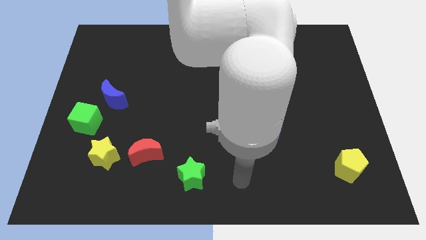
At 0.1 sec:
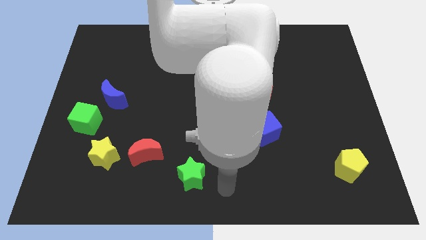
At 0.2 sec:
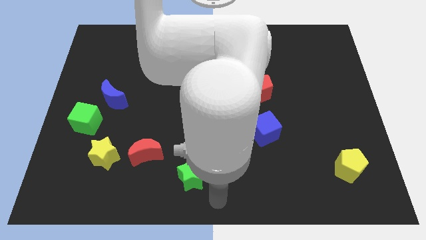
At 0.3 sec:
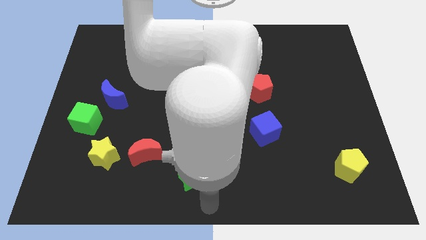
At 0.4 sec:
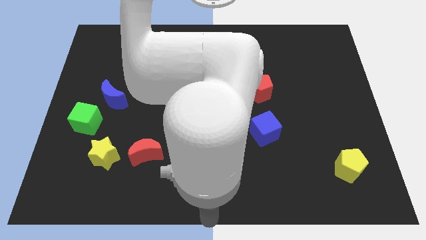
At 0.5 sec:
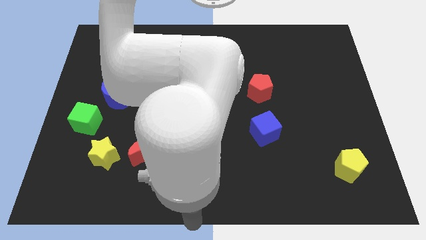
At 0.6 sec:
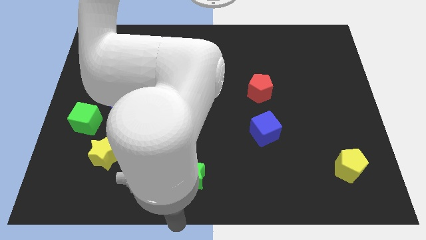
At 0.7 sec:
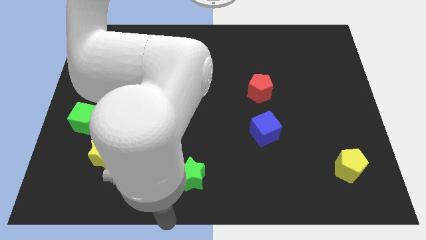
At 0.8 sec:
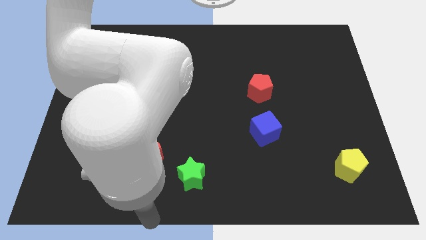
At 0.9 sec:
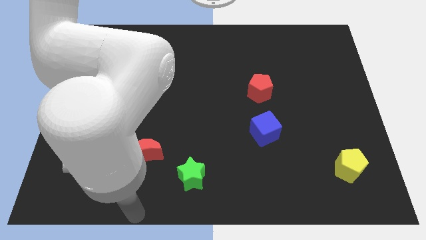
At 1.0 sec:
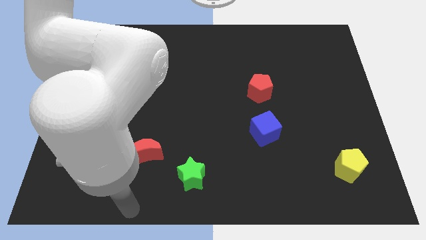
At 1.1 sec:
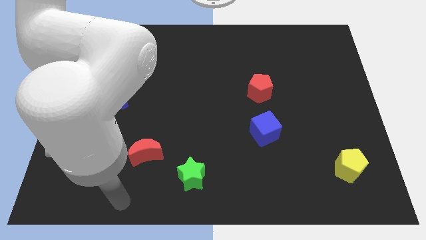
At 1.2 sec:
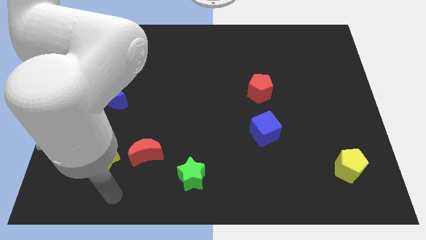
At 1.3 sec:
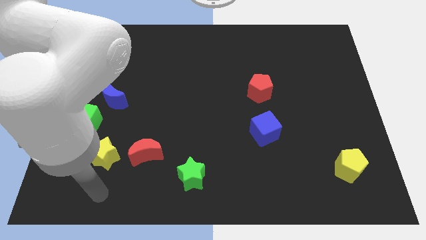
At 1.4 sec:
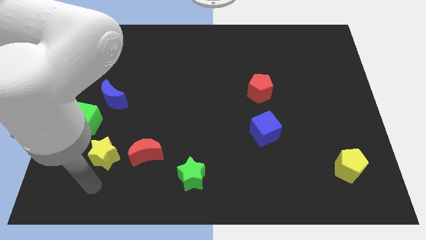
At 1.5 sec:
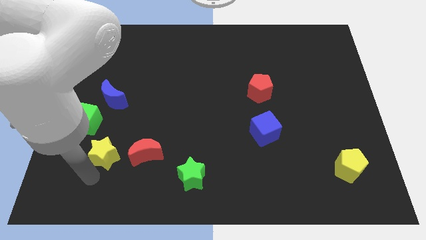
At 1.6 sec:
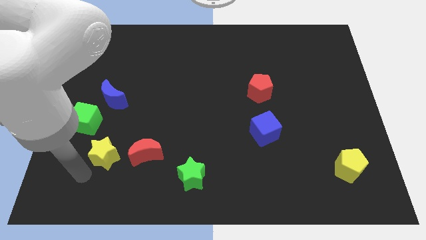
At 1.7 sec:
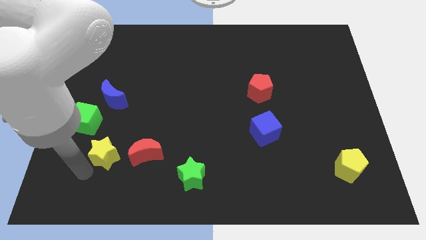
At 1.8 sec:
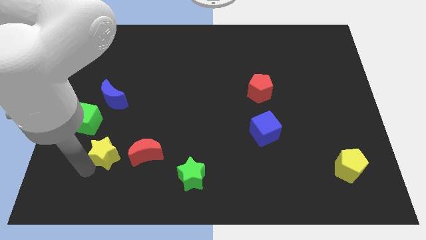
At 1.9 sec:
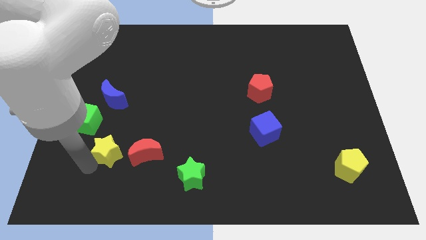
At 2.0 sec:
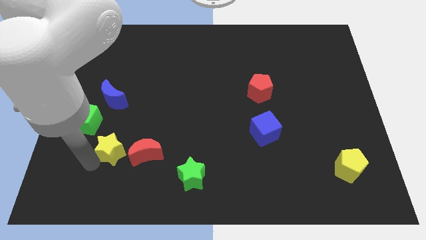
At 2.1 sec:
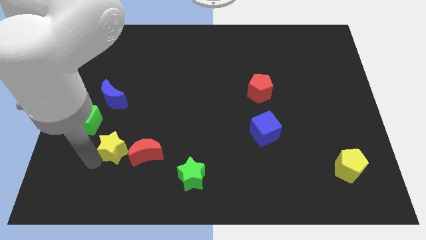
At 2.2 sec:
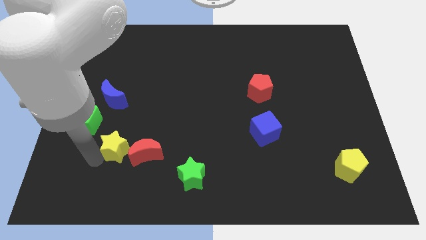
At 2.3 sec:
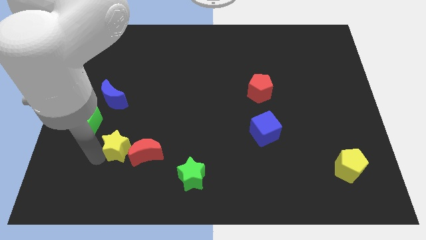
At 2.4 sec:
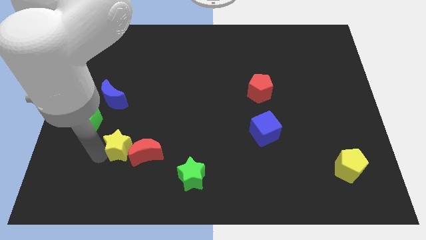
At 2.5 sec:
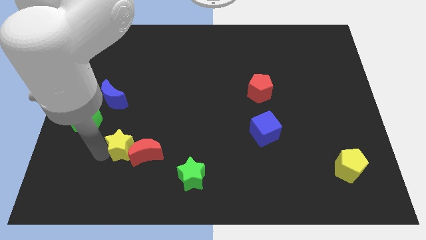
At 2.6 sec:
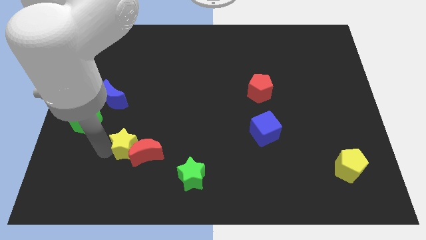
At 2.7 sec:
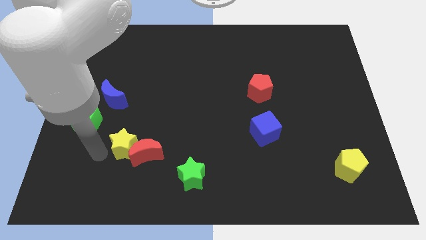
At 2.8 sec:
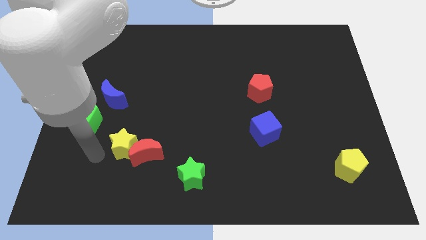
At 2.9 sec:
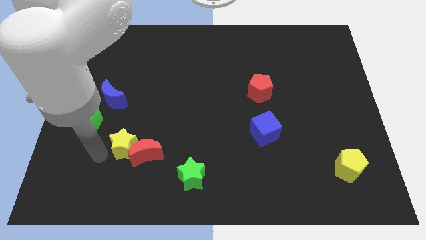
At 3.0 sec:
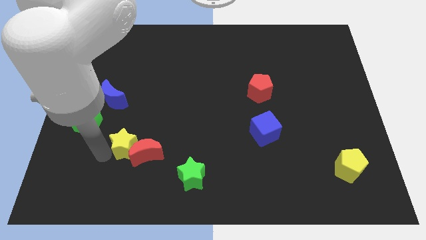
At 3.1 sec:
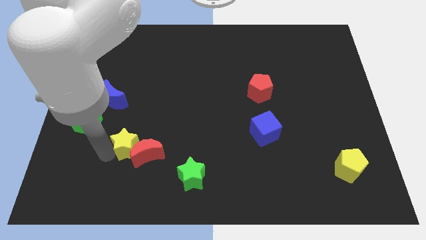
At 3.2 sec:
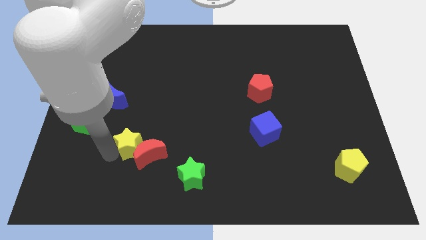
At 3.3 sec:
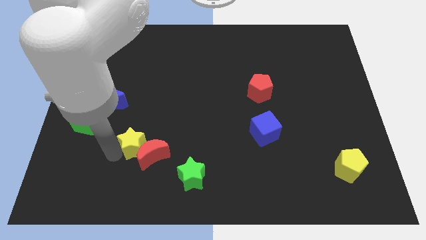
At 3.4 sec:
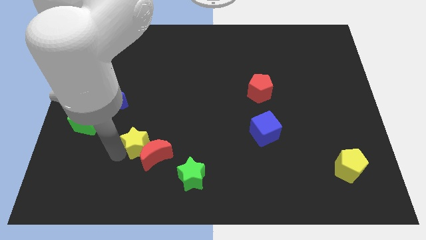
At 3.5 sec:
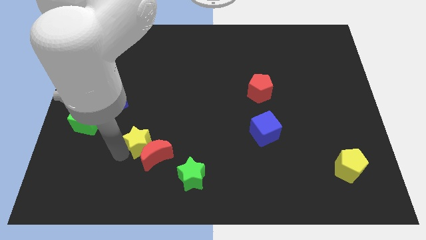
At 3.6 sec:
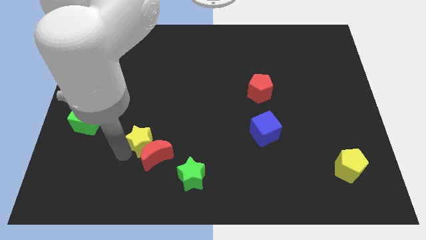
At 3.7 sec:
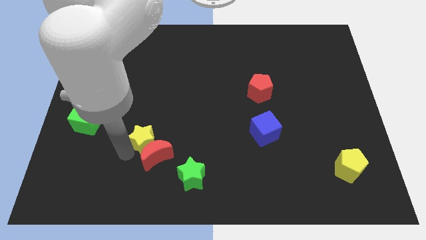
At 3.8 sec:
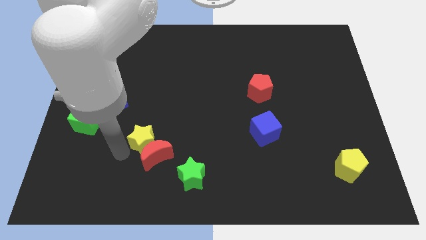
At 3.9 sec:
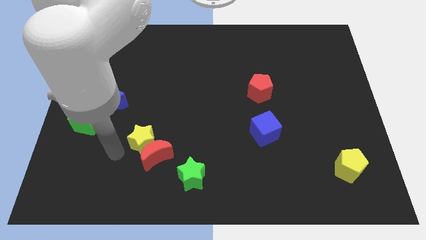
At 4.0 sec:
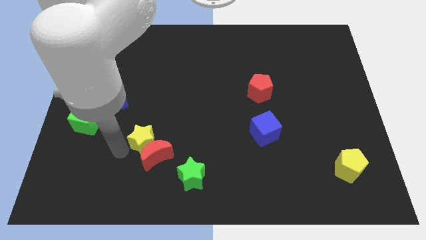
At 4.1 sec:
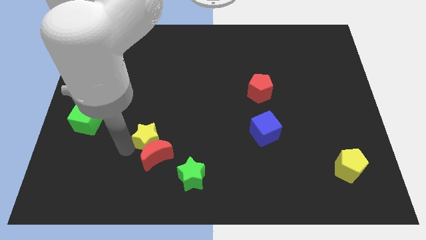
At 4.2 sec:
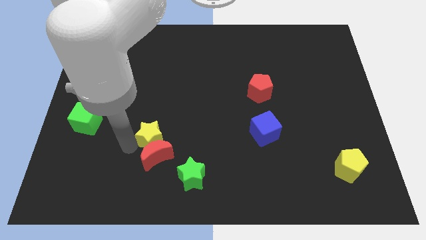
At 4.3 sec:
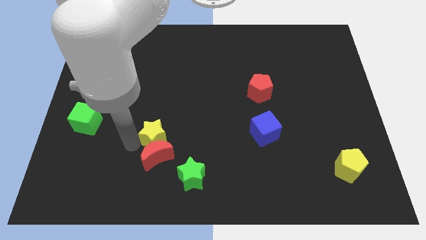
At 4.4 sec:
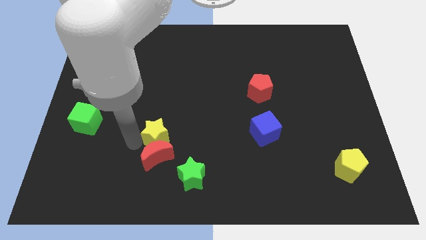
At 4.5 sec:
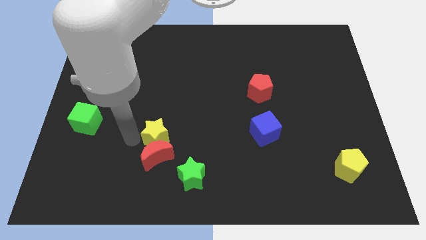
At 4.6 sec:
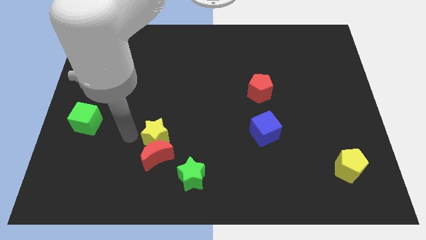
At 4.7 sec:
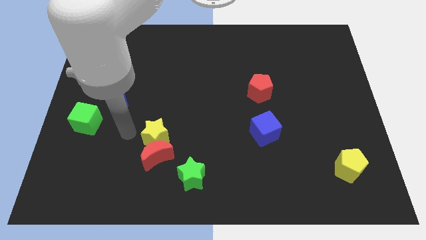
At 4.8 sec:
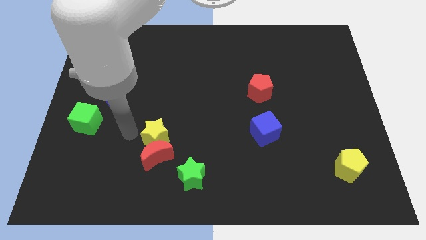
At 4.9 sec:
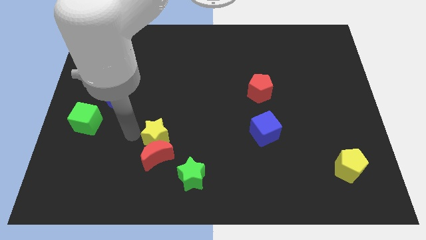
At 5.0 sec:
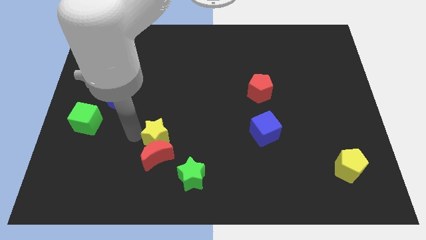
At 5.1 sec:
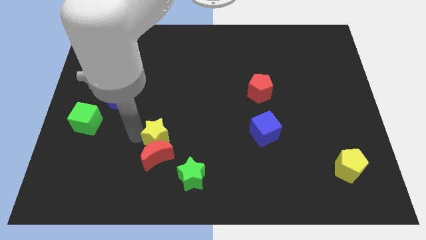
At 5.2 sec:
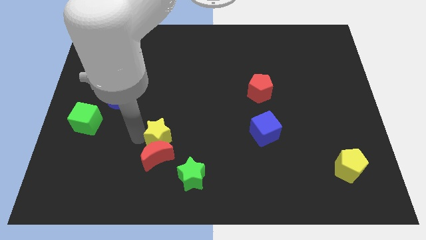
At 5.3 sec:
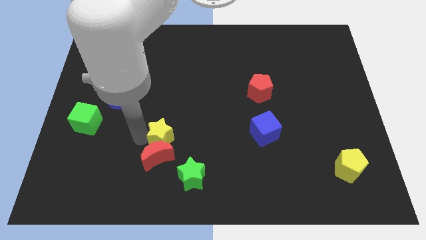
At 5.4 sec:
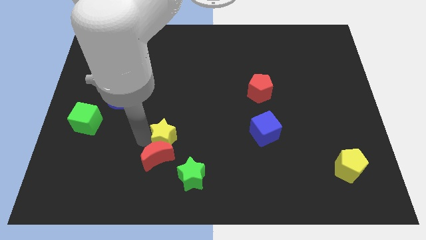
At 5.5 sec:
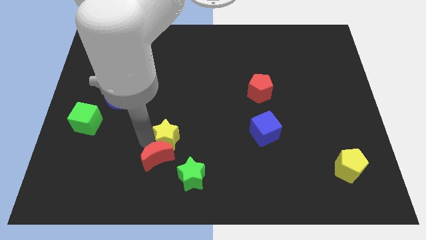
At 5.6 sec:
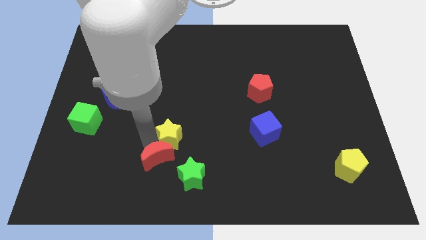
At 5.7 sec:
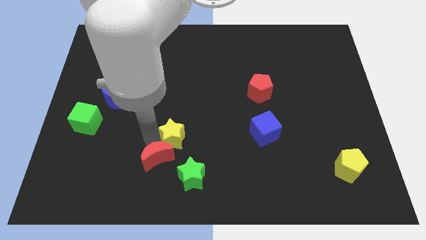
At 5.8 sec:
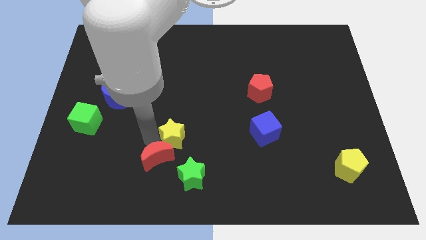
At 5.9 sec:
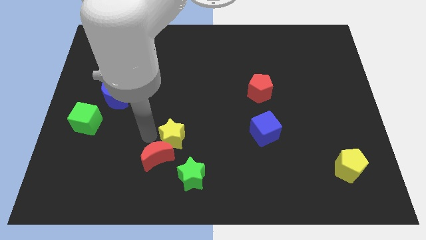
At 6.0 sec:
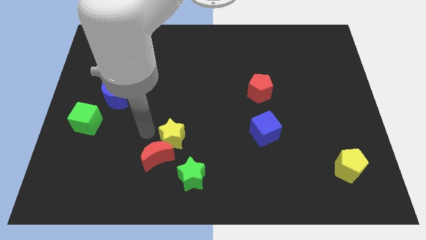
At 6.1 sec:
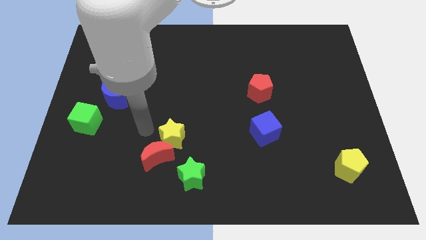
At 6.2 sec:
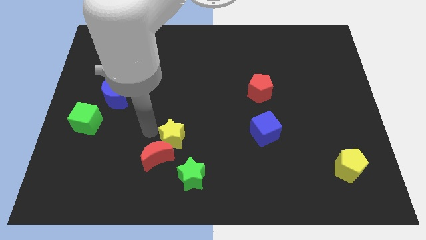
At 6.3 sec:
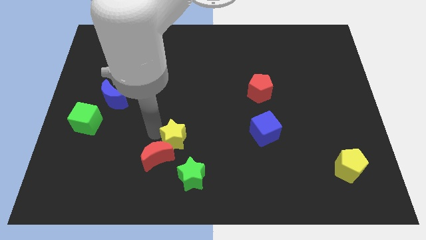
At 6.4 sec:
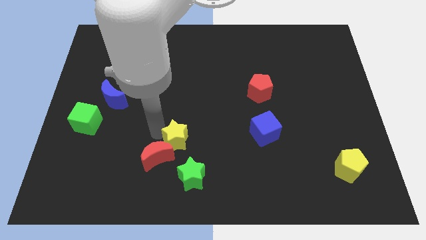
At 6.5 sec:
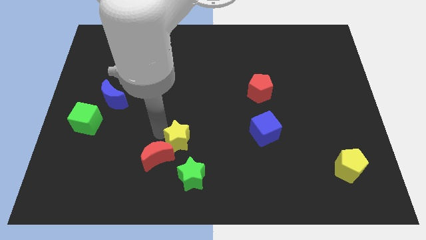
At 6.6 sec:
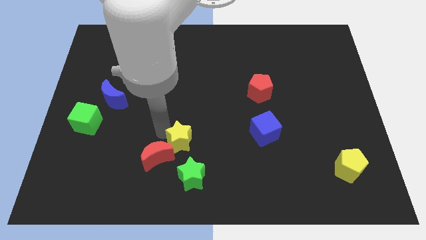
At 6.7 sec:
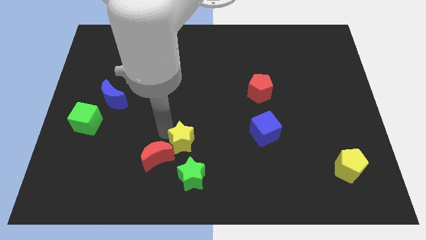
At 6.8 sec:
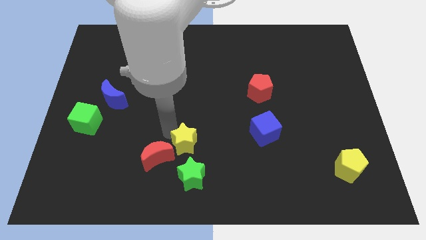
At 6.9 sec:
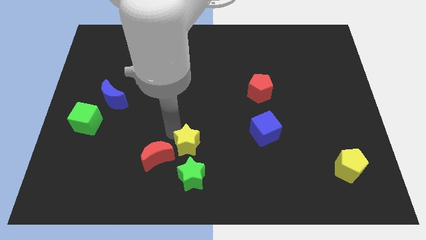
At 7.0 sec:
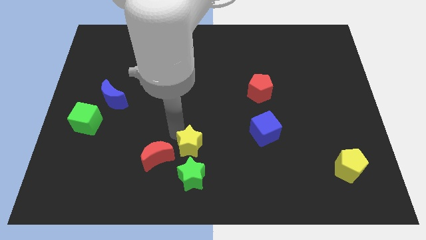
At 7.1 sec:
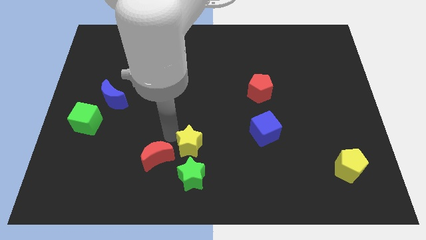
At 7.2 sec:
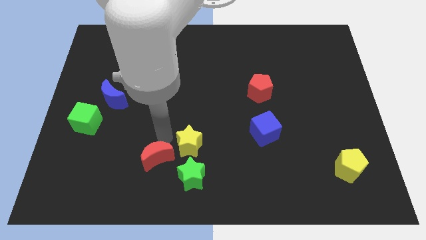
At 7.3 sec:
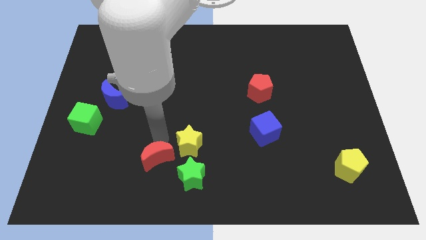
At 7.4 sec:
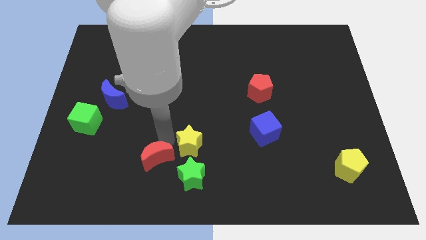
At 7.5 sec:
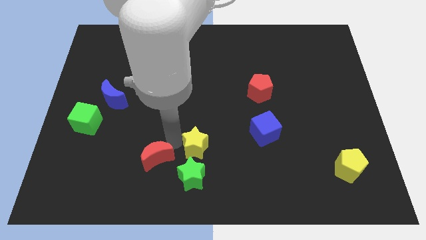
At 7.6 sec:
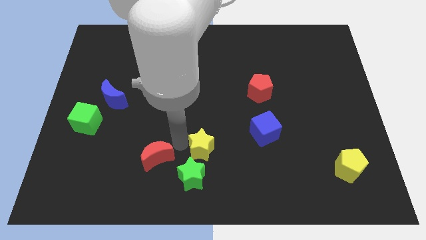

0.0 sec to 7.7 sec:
move the yellow star to the right
